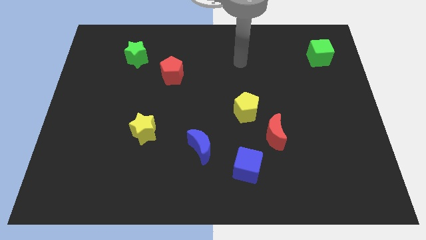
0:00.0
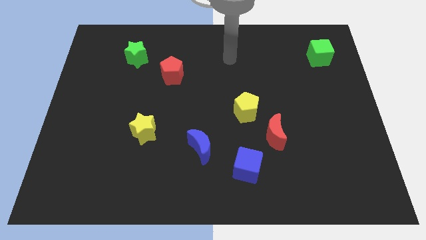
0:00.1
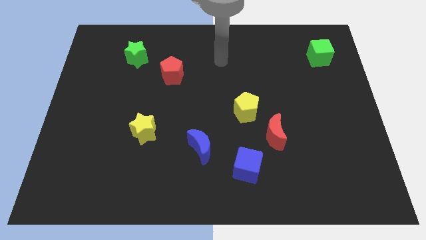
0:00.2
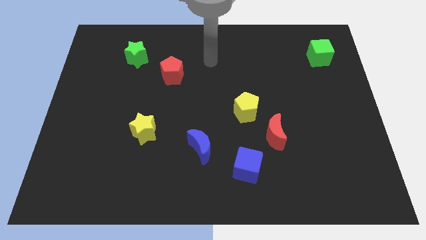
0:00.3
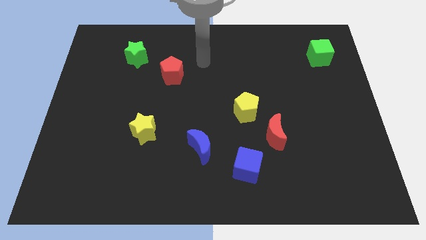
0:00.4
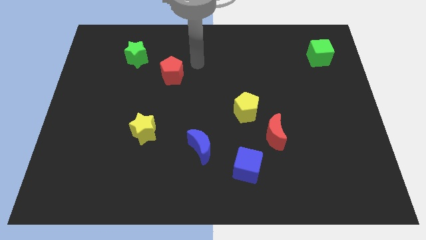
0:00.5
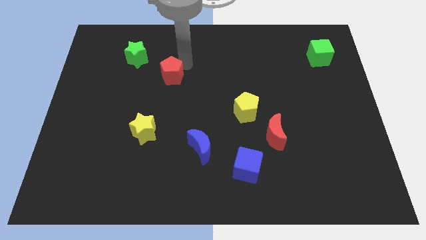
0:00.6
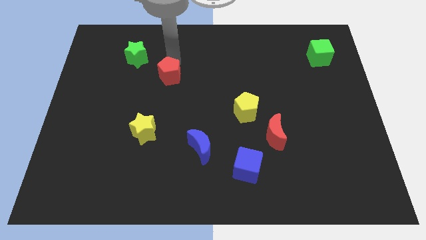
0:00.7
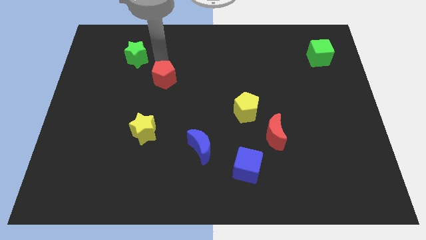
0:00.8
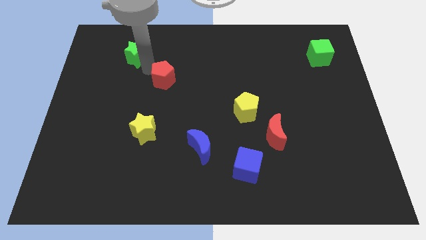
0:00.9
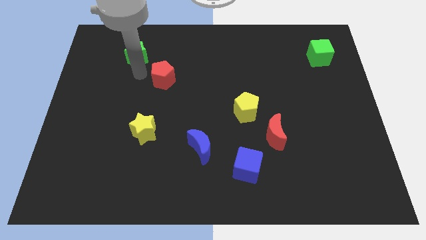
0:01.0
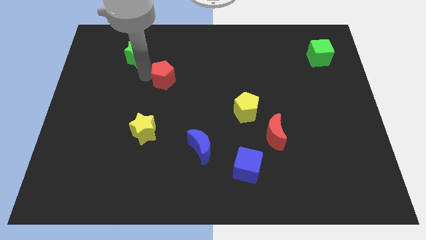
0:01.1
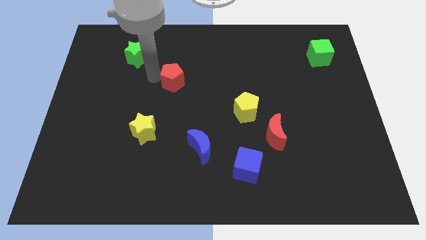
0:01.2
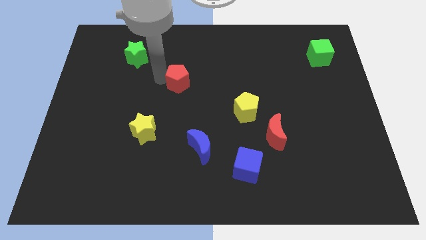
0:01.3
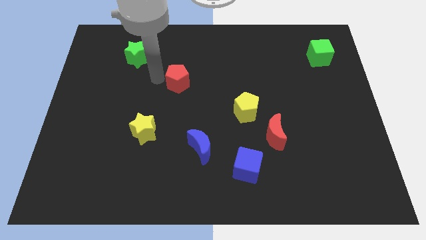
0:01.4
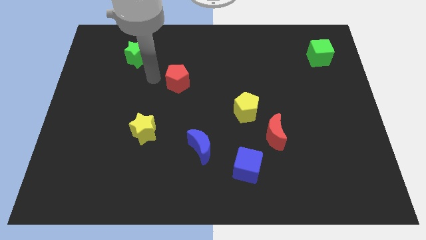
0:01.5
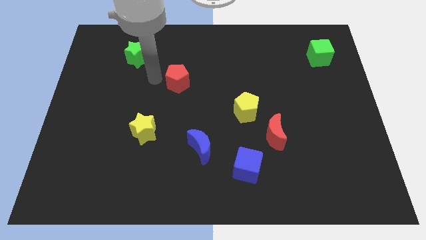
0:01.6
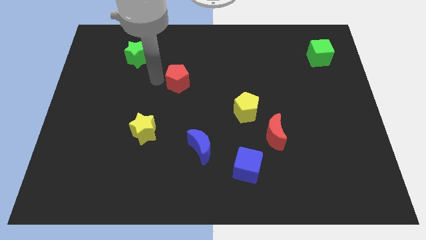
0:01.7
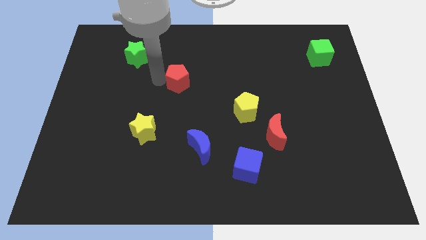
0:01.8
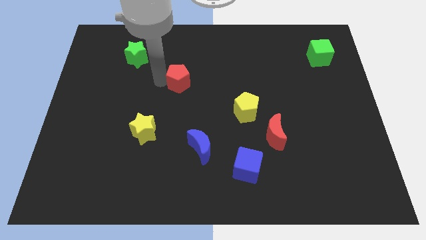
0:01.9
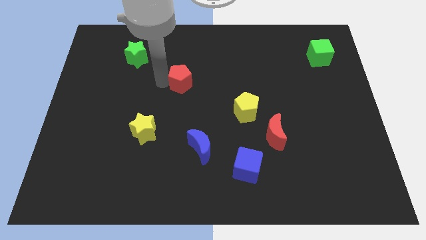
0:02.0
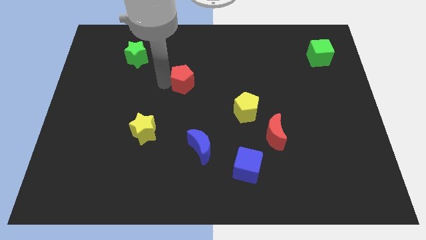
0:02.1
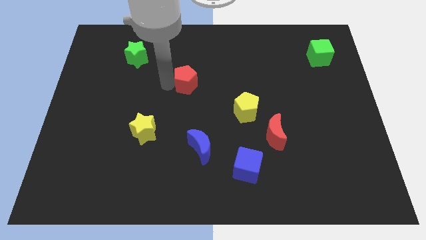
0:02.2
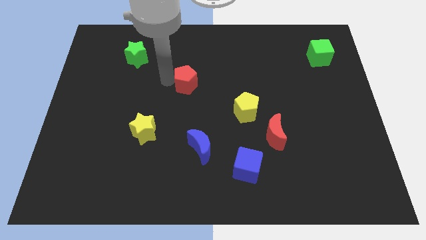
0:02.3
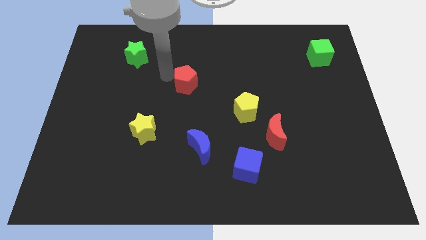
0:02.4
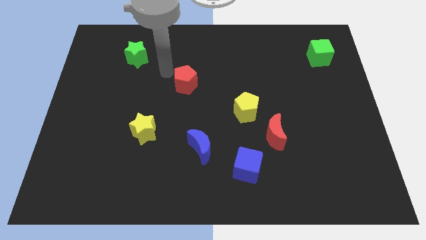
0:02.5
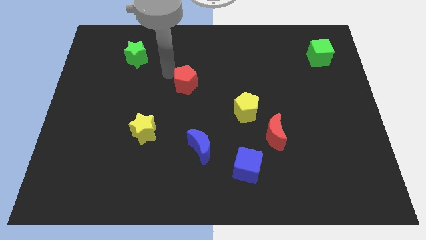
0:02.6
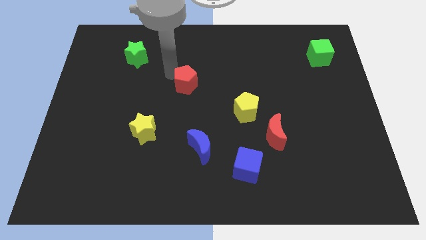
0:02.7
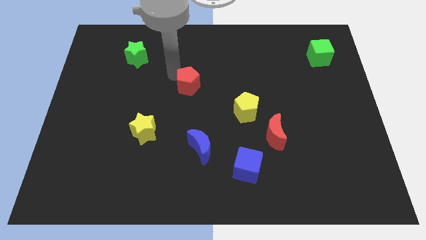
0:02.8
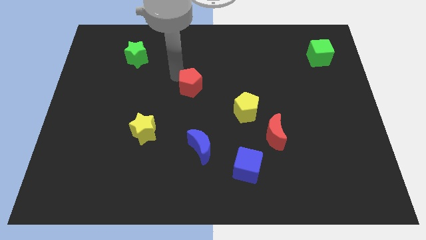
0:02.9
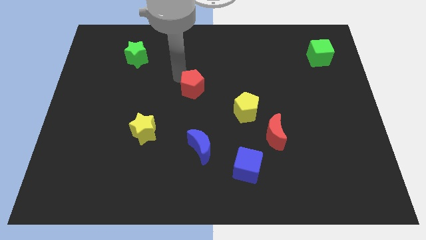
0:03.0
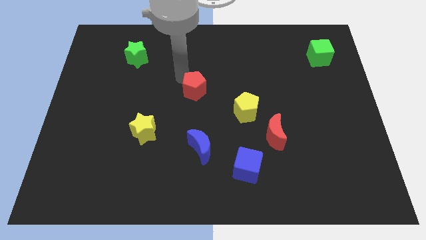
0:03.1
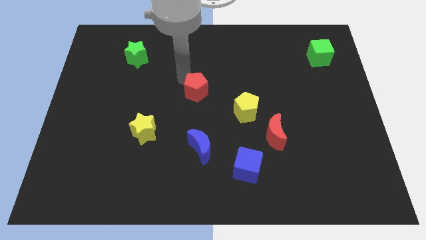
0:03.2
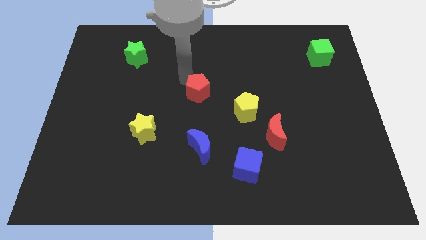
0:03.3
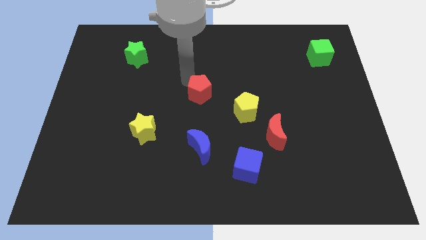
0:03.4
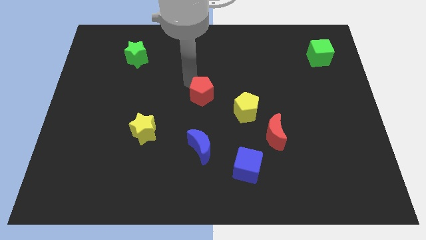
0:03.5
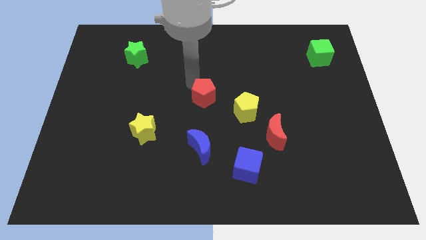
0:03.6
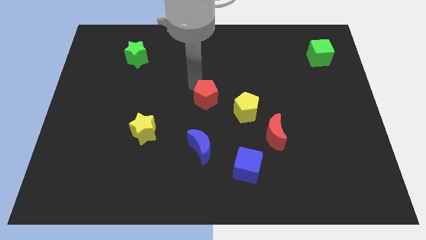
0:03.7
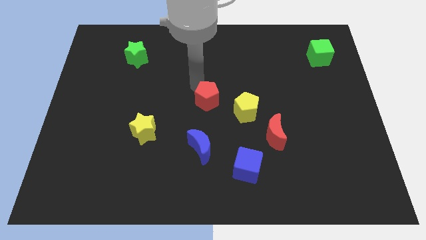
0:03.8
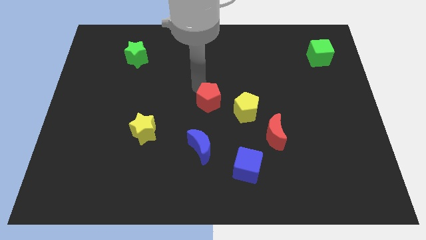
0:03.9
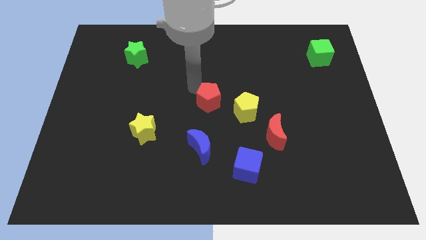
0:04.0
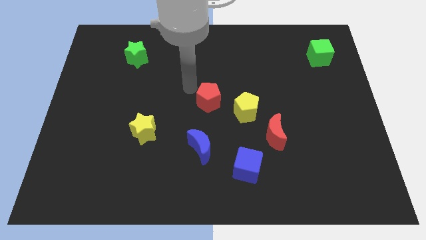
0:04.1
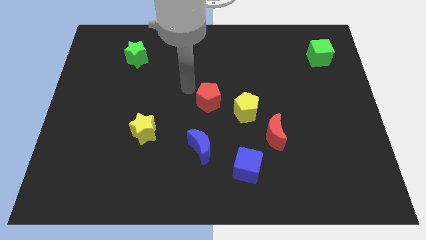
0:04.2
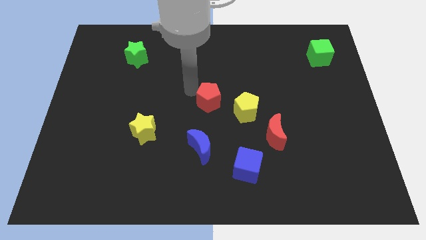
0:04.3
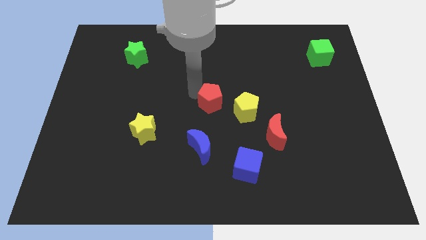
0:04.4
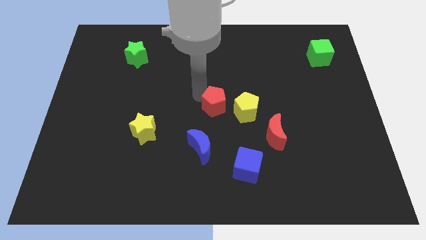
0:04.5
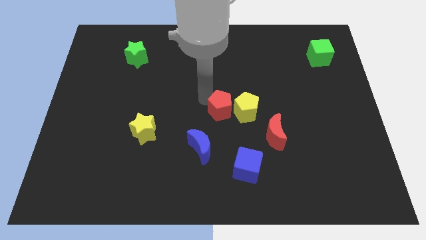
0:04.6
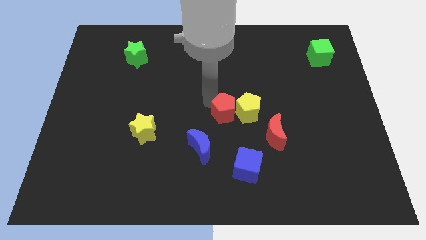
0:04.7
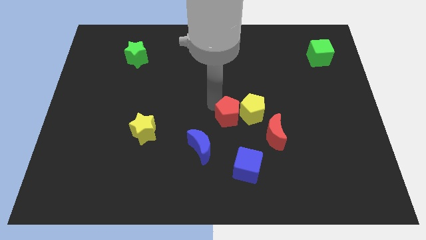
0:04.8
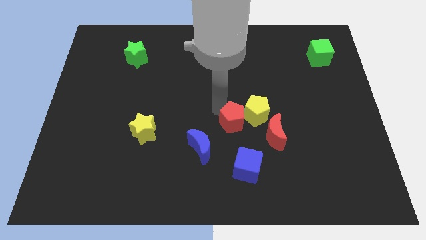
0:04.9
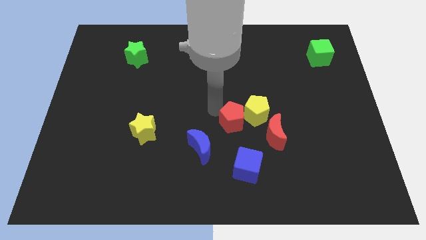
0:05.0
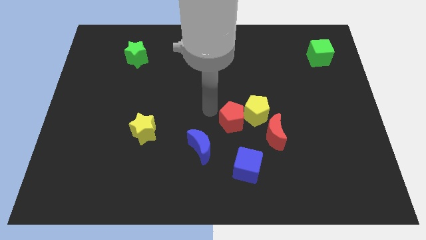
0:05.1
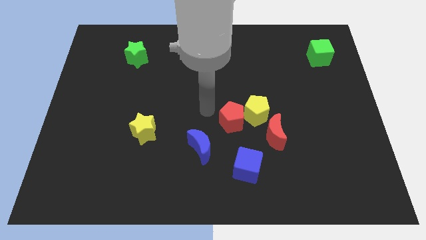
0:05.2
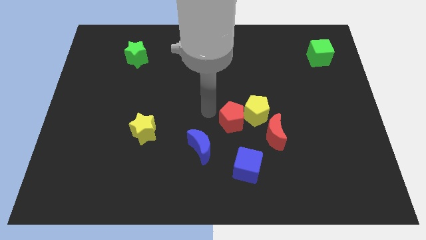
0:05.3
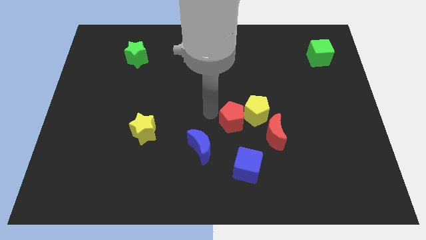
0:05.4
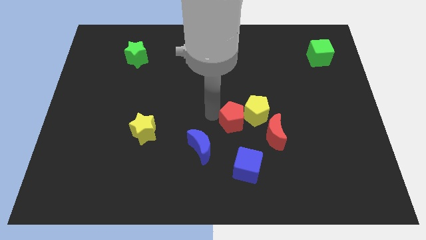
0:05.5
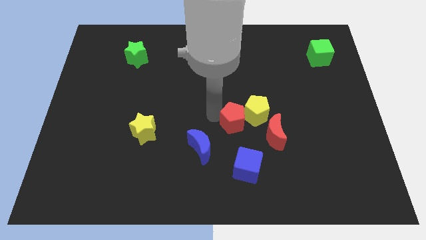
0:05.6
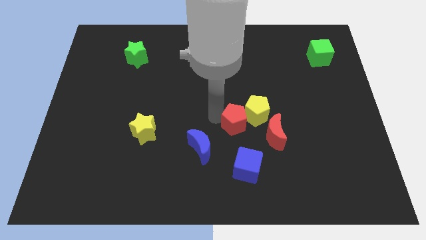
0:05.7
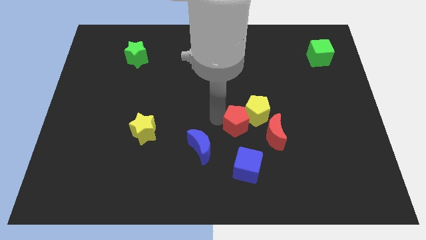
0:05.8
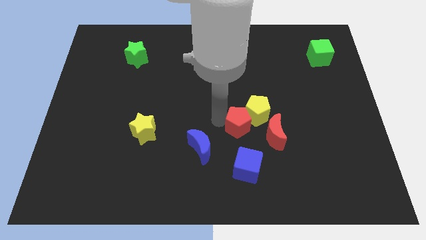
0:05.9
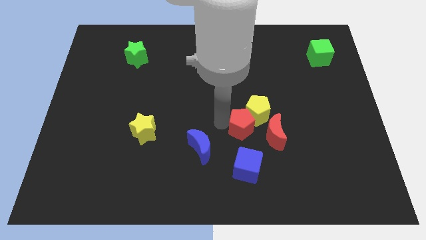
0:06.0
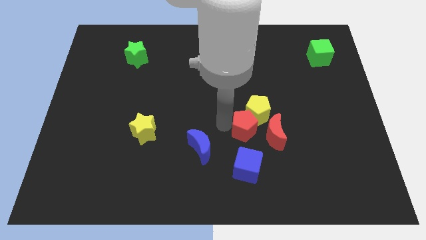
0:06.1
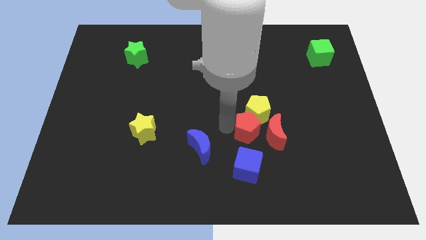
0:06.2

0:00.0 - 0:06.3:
push the red pentagon next to the red moon

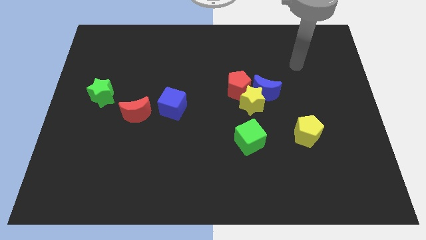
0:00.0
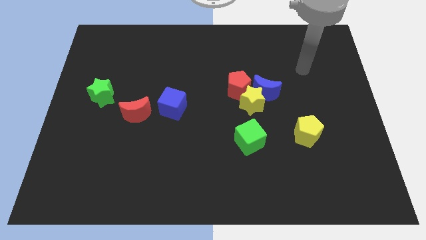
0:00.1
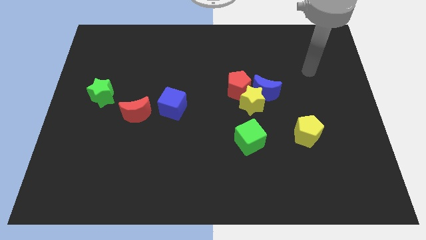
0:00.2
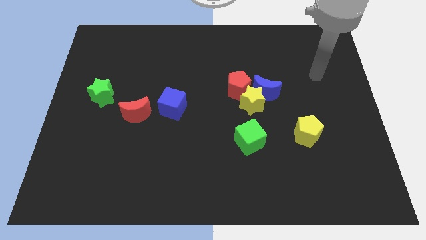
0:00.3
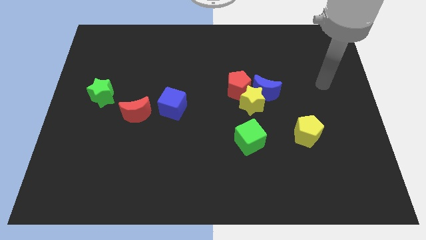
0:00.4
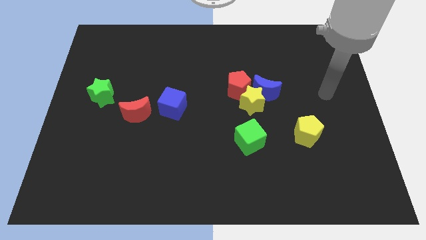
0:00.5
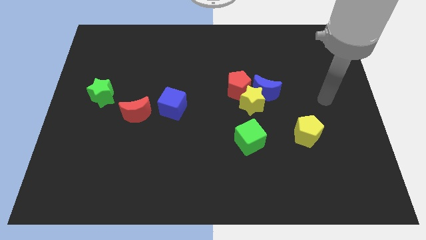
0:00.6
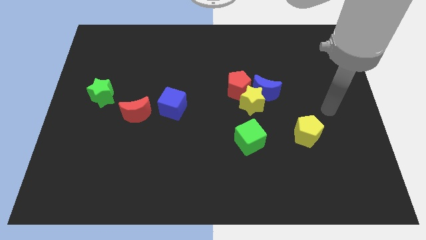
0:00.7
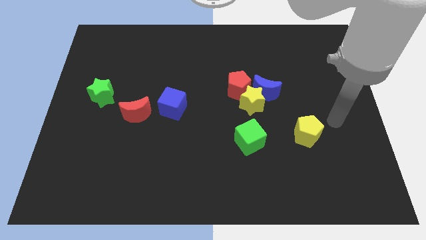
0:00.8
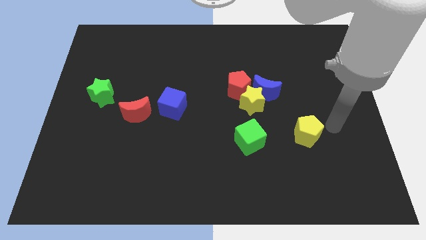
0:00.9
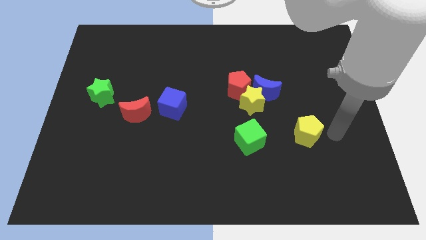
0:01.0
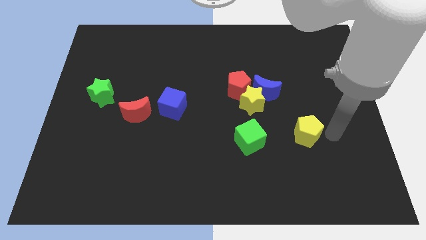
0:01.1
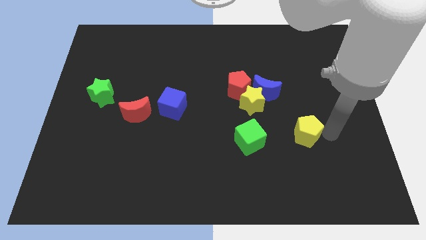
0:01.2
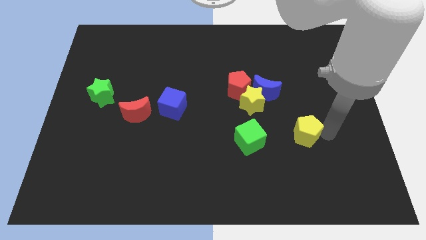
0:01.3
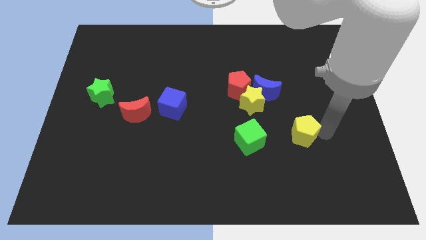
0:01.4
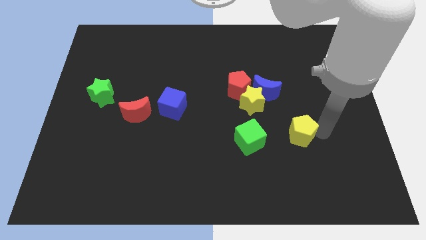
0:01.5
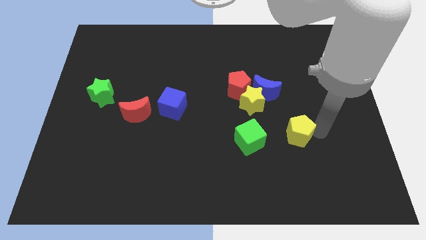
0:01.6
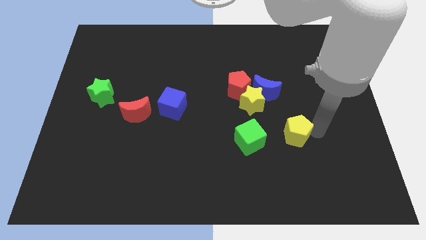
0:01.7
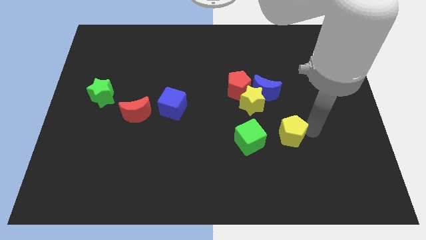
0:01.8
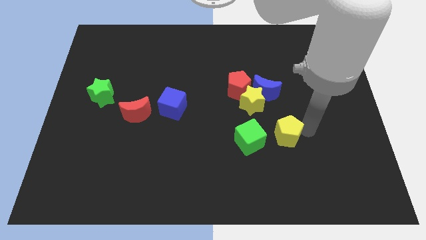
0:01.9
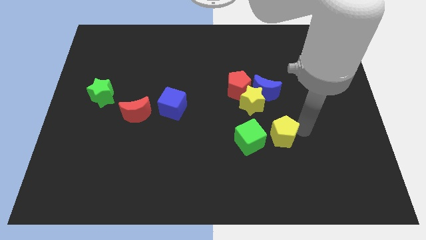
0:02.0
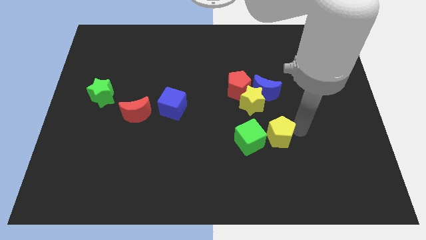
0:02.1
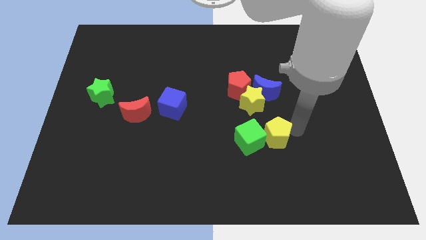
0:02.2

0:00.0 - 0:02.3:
push the yellow pentagon close to the green cube
